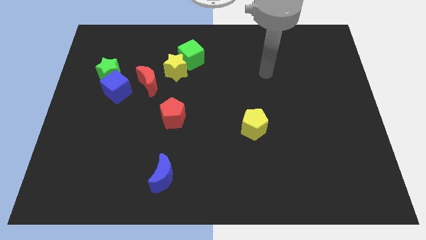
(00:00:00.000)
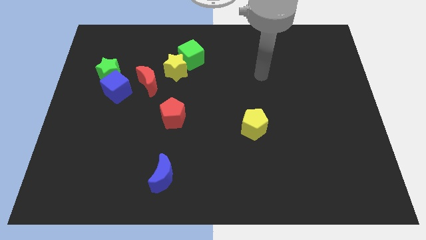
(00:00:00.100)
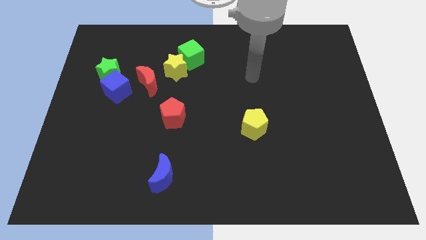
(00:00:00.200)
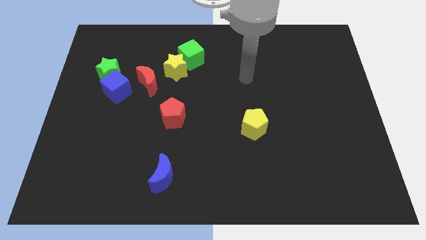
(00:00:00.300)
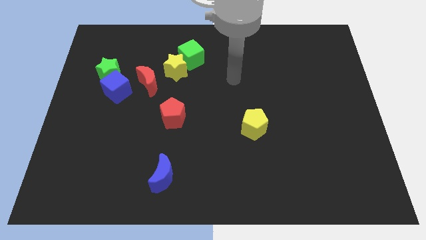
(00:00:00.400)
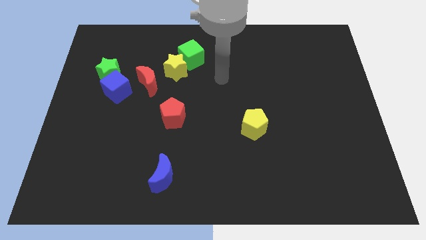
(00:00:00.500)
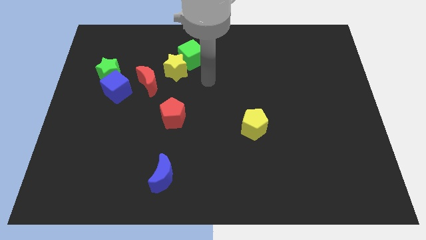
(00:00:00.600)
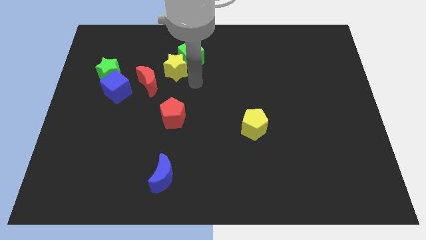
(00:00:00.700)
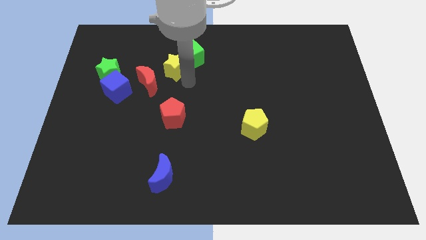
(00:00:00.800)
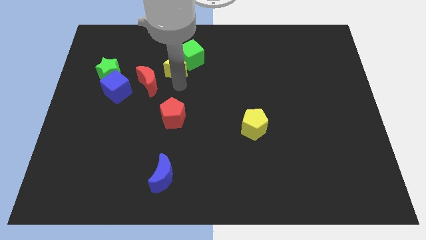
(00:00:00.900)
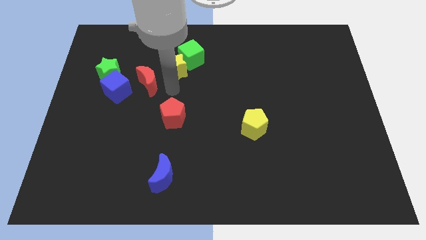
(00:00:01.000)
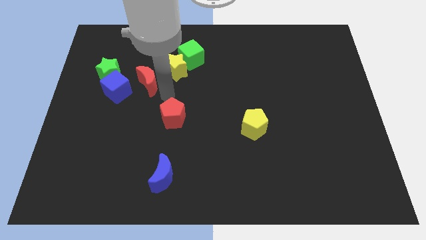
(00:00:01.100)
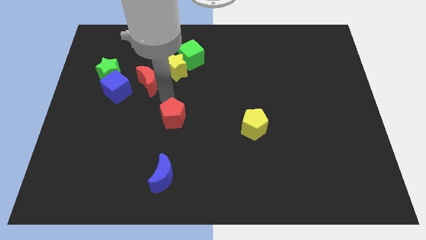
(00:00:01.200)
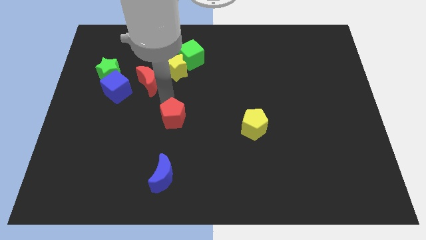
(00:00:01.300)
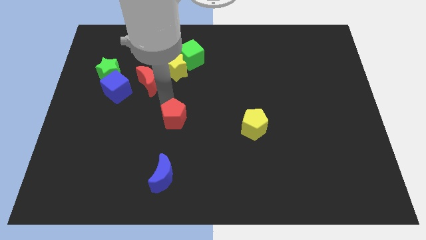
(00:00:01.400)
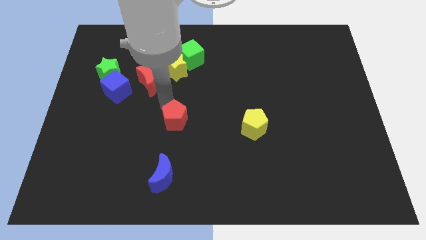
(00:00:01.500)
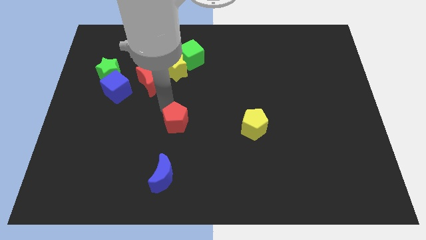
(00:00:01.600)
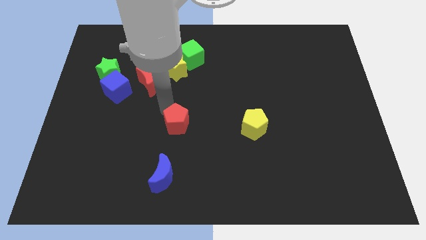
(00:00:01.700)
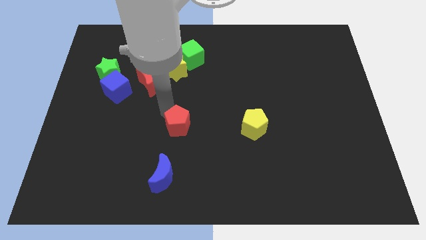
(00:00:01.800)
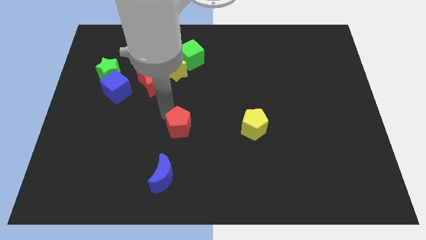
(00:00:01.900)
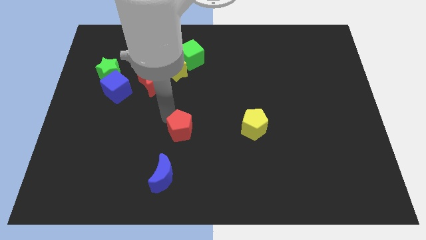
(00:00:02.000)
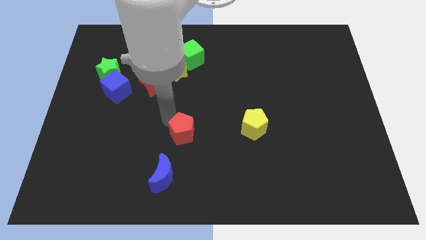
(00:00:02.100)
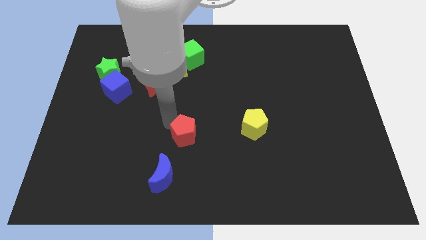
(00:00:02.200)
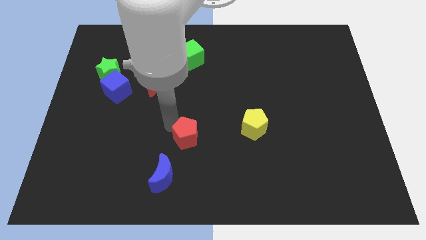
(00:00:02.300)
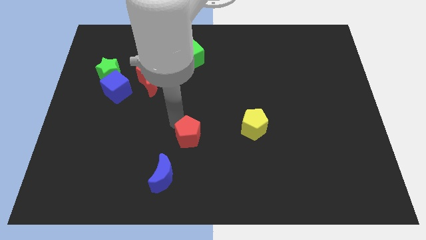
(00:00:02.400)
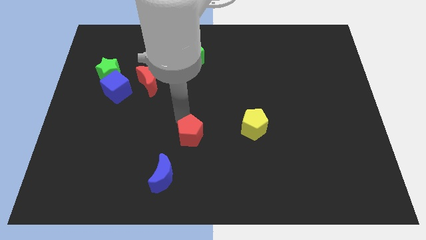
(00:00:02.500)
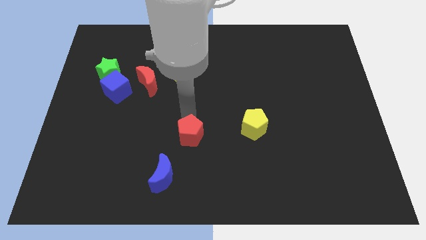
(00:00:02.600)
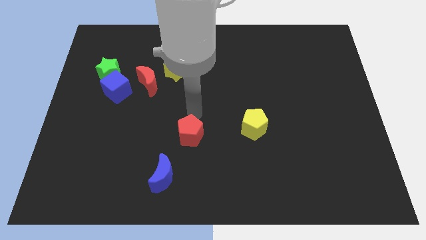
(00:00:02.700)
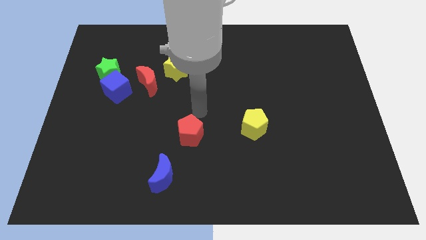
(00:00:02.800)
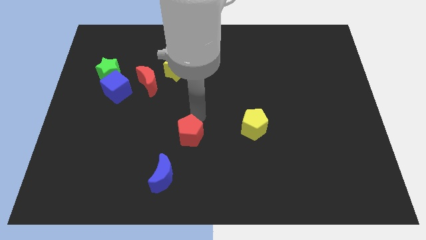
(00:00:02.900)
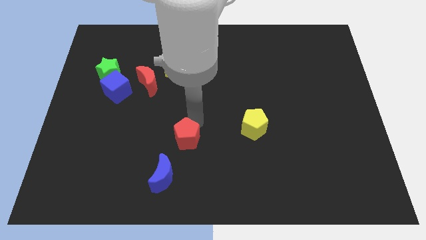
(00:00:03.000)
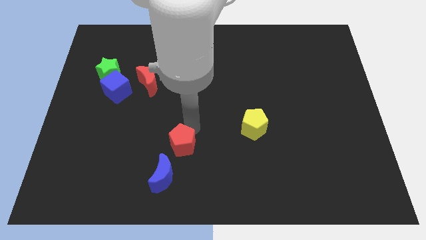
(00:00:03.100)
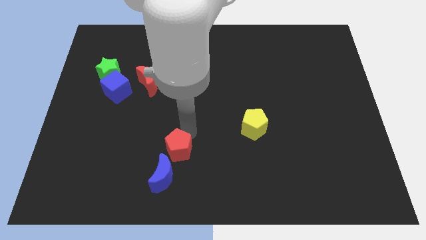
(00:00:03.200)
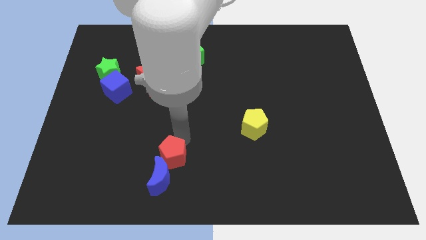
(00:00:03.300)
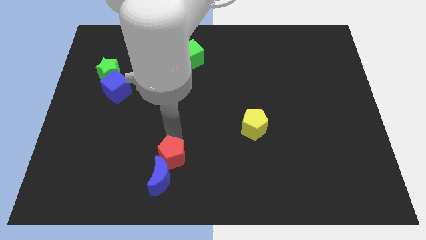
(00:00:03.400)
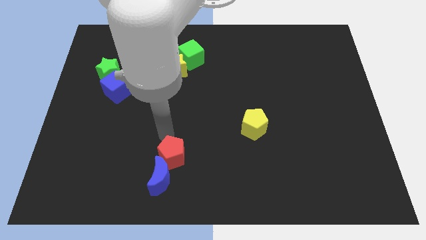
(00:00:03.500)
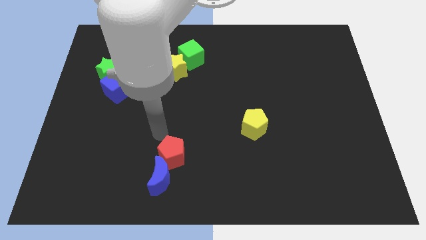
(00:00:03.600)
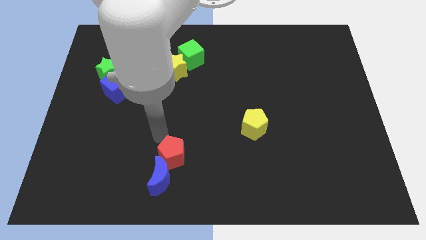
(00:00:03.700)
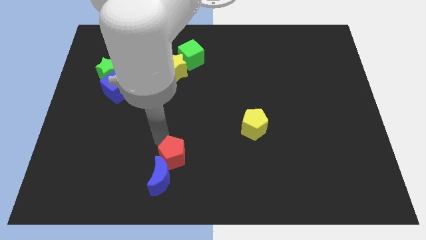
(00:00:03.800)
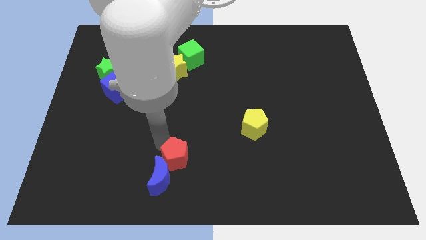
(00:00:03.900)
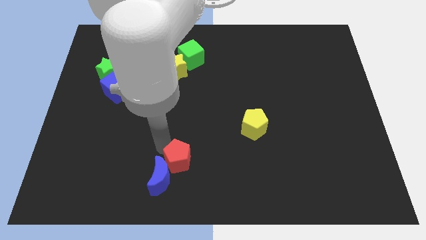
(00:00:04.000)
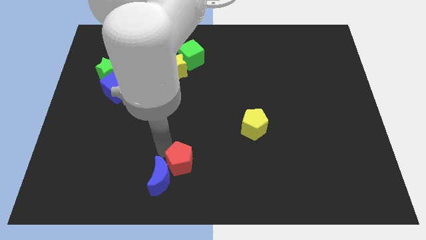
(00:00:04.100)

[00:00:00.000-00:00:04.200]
put the red pentagon to the bottom side

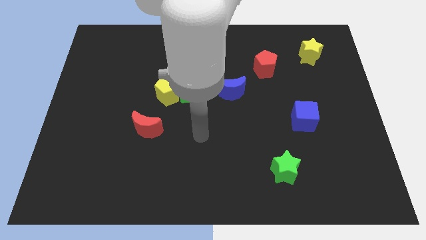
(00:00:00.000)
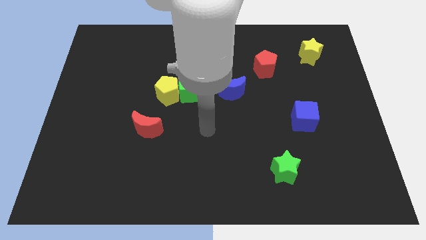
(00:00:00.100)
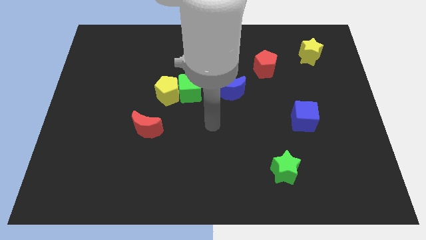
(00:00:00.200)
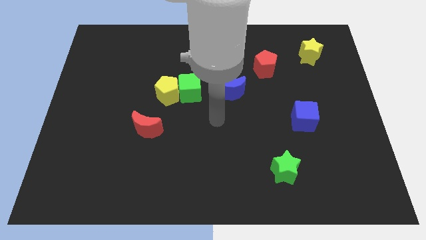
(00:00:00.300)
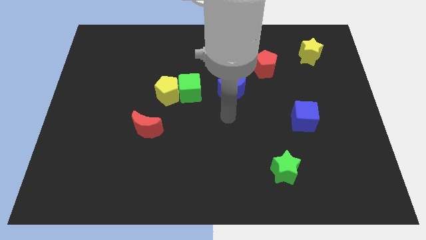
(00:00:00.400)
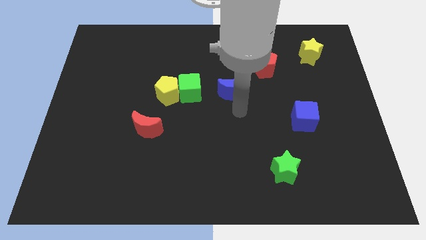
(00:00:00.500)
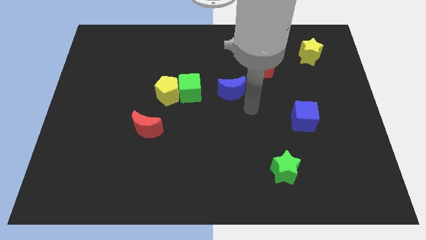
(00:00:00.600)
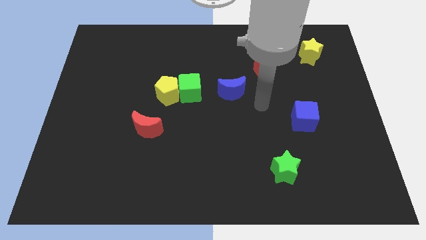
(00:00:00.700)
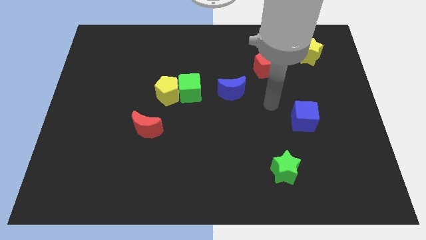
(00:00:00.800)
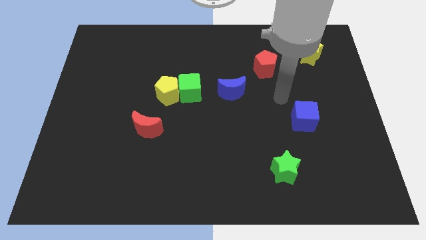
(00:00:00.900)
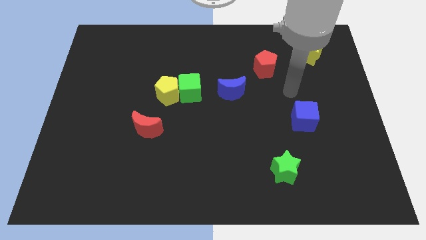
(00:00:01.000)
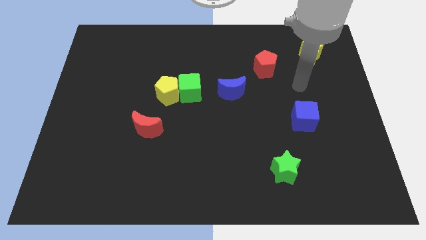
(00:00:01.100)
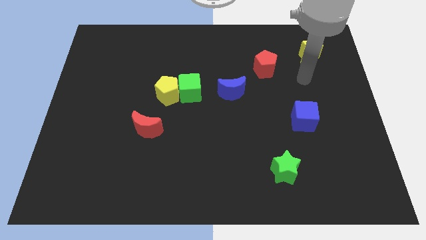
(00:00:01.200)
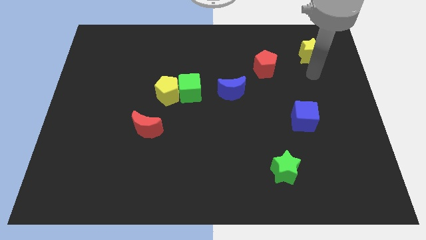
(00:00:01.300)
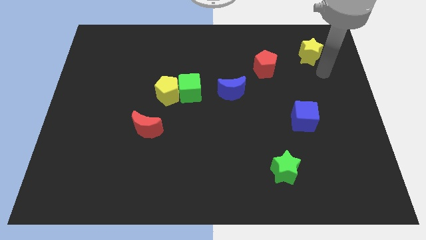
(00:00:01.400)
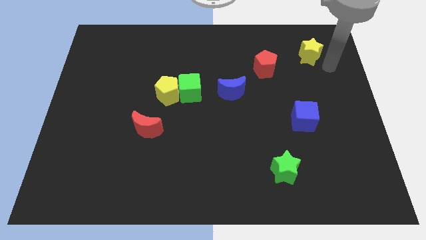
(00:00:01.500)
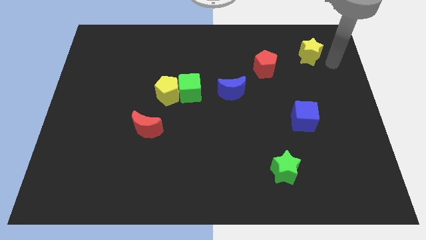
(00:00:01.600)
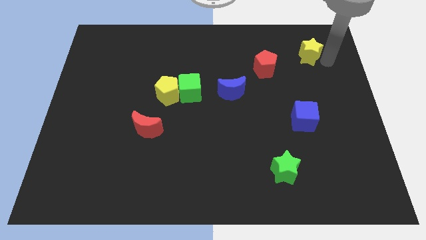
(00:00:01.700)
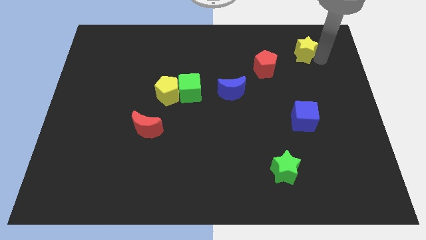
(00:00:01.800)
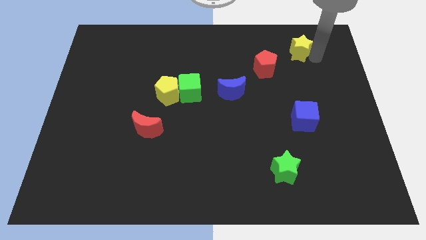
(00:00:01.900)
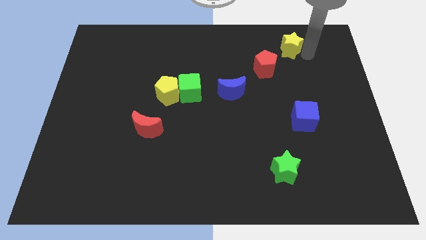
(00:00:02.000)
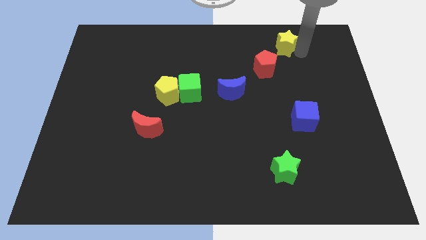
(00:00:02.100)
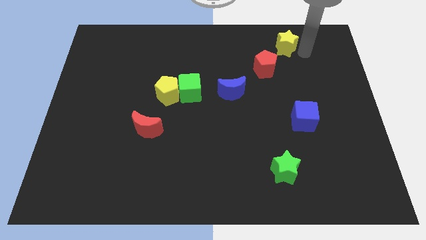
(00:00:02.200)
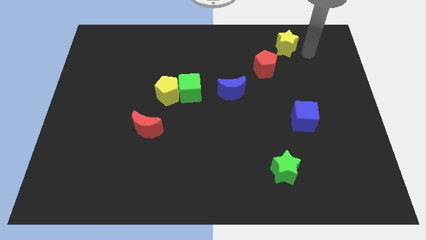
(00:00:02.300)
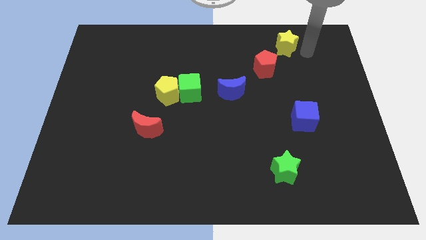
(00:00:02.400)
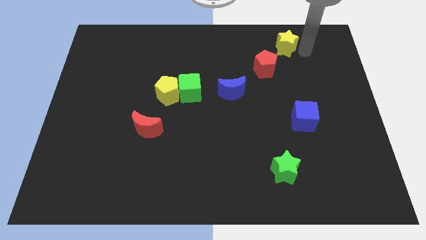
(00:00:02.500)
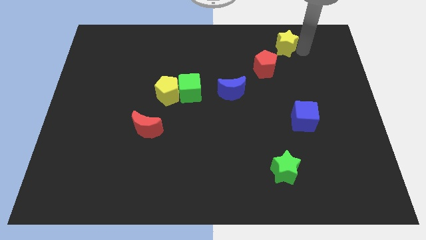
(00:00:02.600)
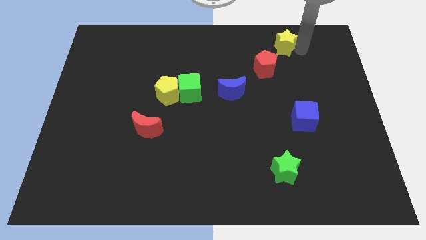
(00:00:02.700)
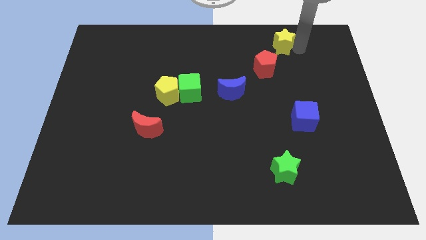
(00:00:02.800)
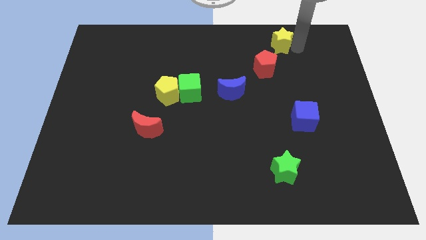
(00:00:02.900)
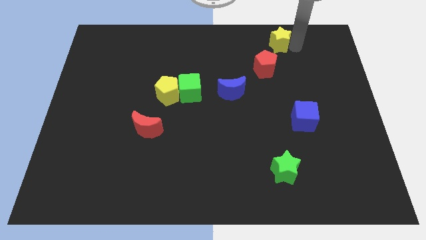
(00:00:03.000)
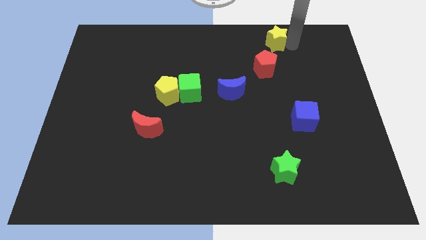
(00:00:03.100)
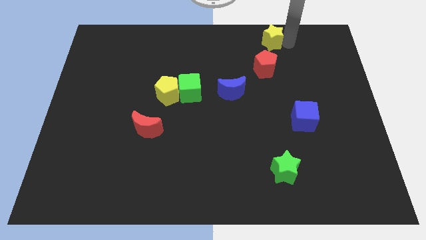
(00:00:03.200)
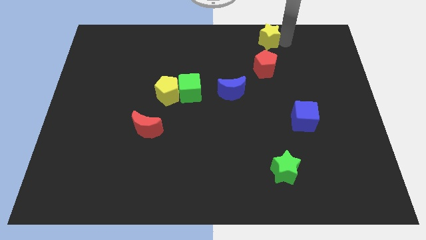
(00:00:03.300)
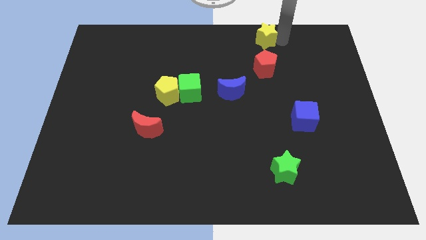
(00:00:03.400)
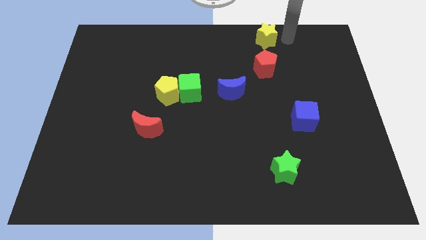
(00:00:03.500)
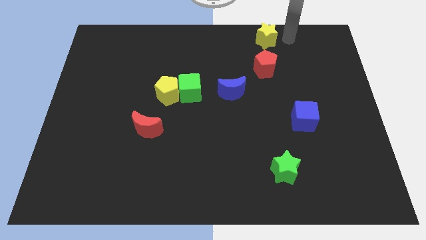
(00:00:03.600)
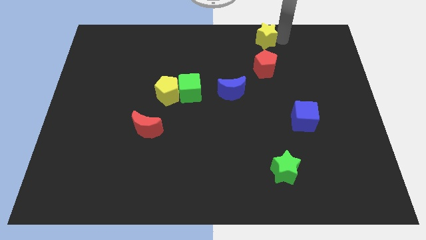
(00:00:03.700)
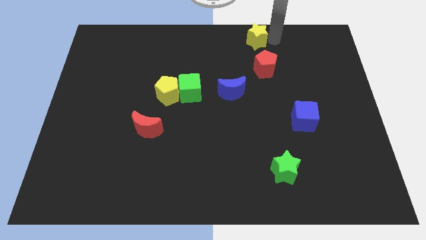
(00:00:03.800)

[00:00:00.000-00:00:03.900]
put the yellow star to the top side
